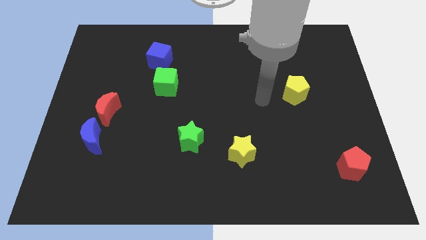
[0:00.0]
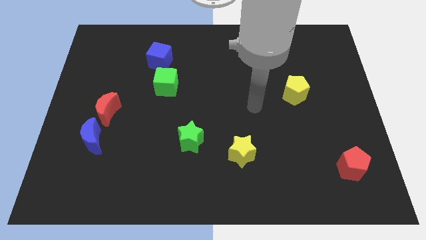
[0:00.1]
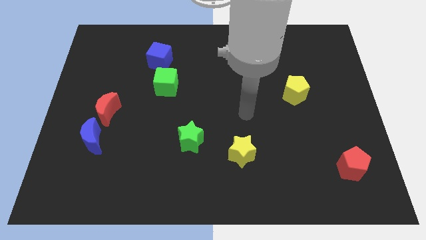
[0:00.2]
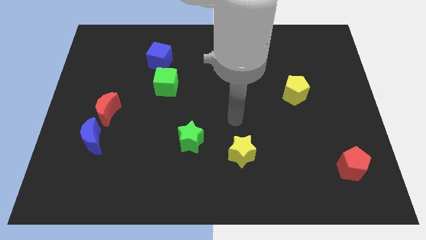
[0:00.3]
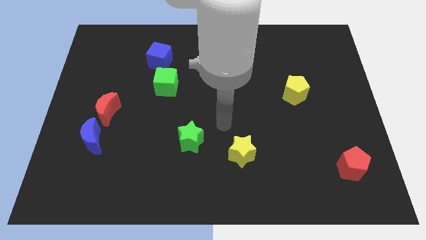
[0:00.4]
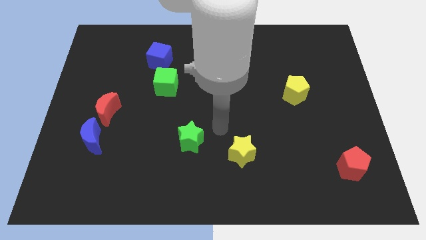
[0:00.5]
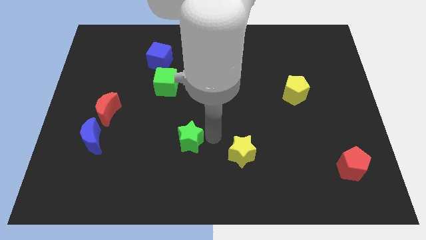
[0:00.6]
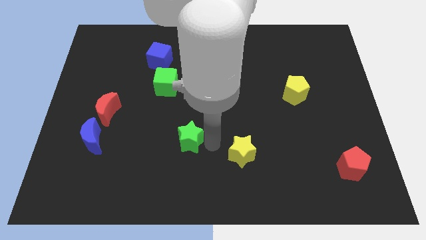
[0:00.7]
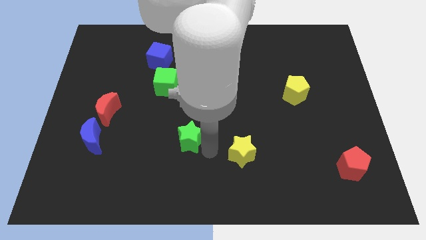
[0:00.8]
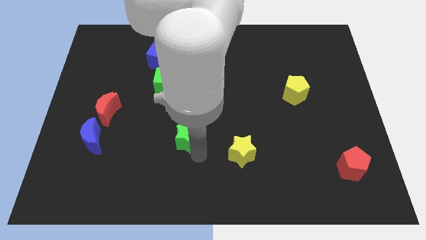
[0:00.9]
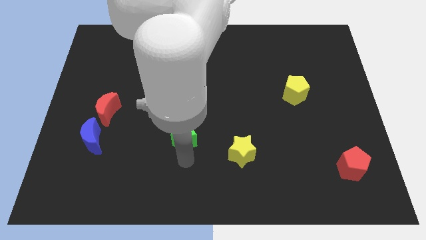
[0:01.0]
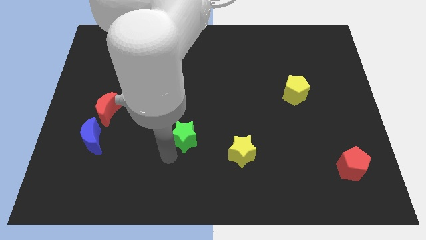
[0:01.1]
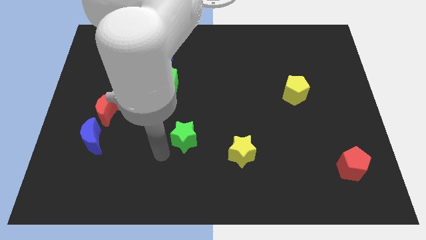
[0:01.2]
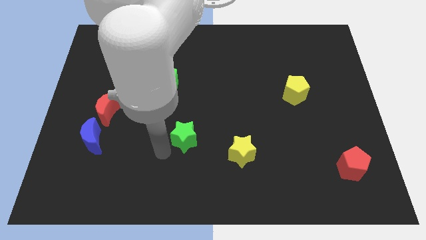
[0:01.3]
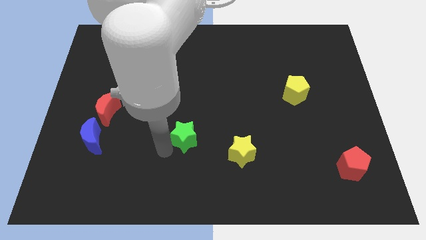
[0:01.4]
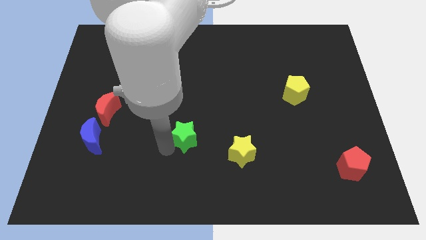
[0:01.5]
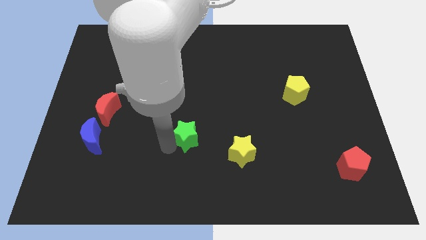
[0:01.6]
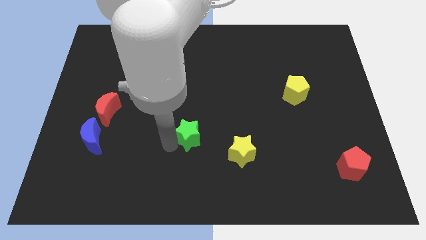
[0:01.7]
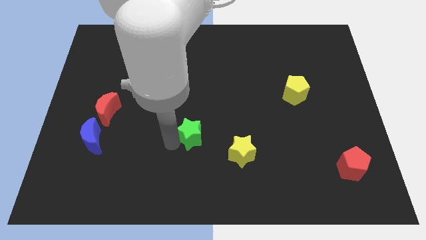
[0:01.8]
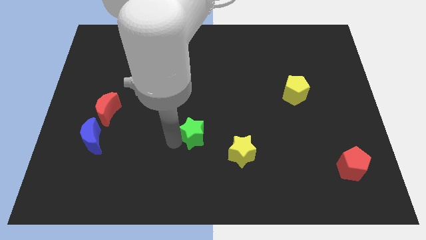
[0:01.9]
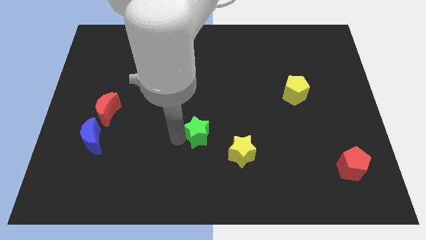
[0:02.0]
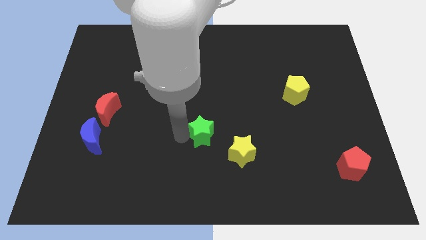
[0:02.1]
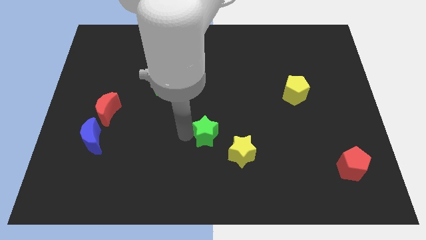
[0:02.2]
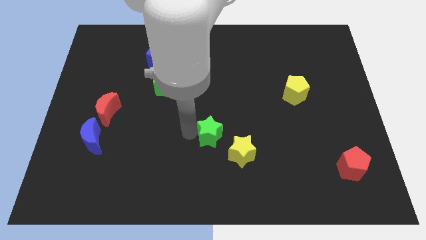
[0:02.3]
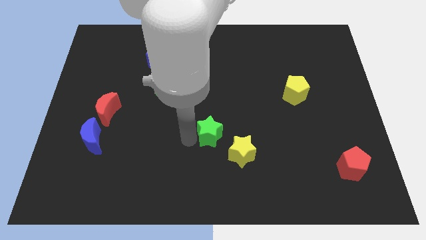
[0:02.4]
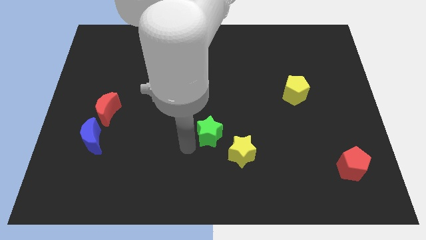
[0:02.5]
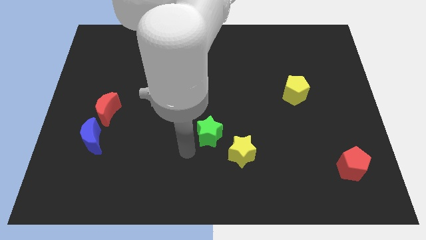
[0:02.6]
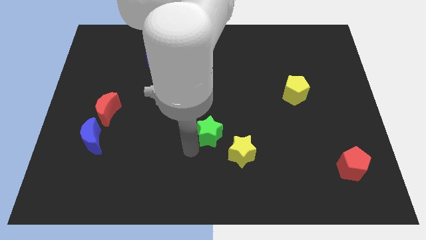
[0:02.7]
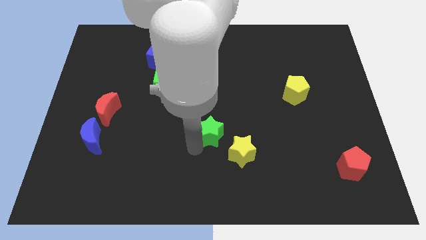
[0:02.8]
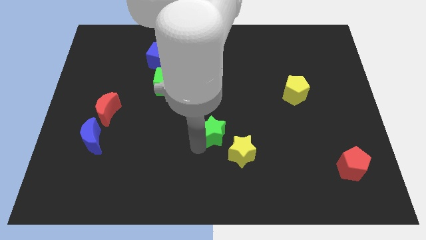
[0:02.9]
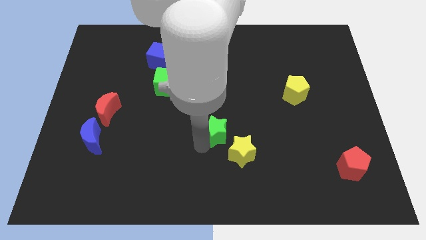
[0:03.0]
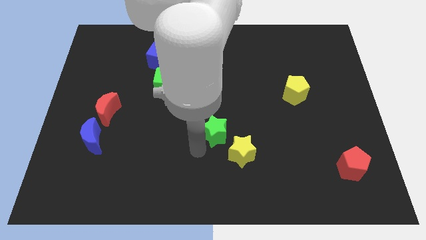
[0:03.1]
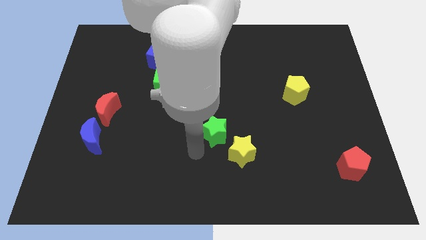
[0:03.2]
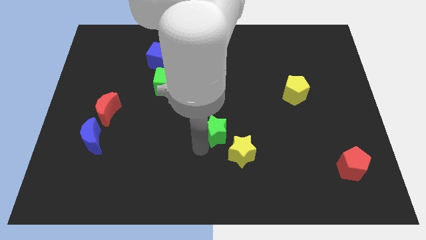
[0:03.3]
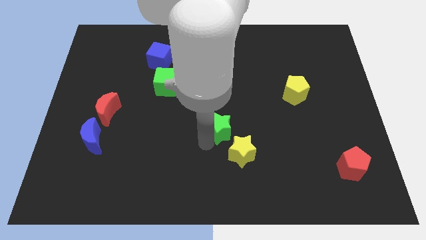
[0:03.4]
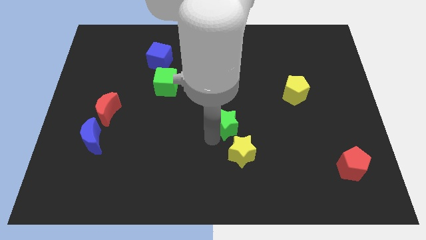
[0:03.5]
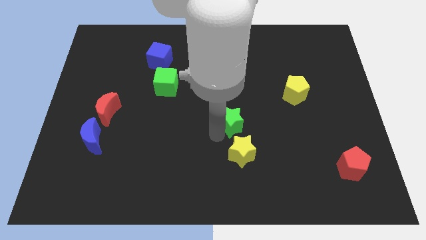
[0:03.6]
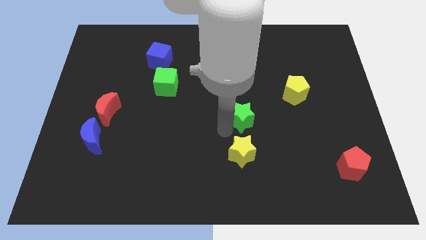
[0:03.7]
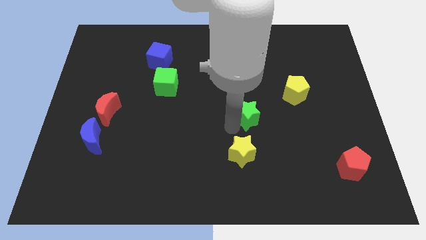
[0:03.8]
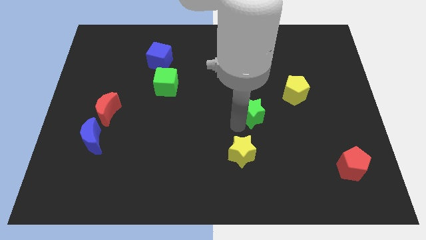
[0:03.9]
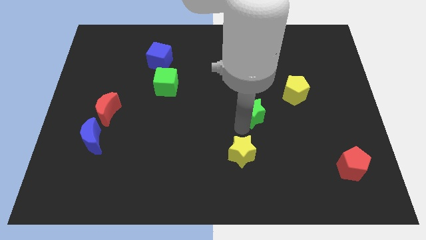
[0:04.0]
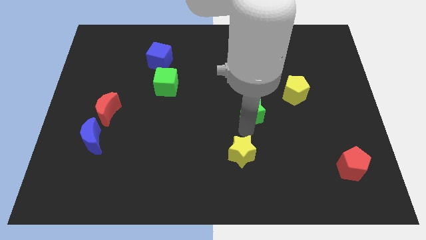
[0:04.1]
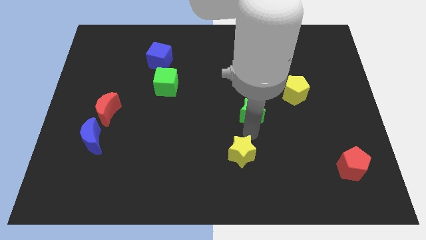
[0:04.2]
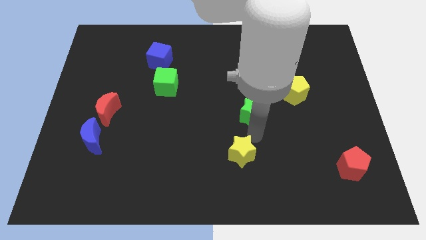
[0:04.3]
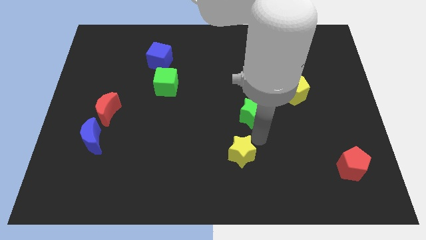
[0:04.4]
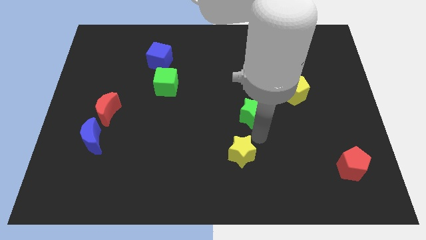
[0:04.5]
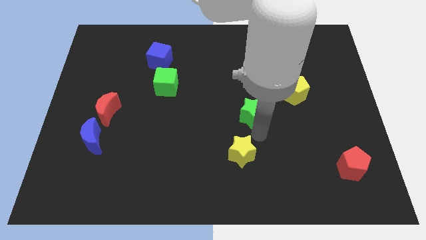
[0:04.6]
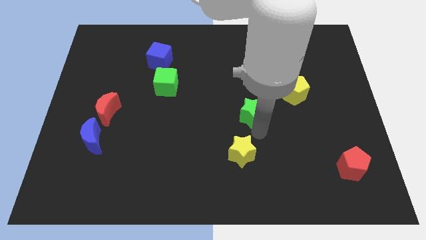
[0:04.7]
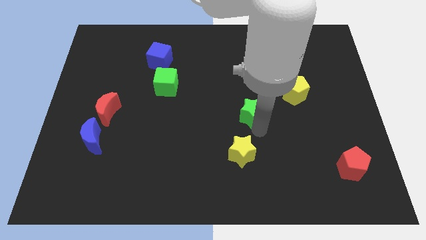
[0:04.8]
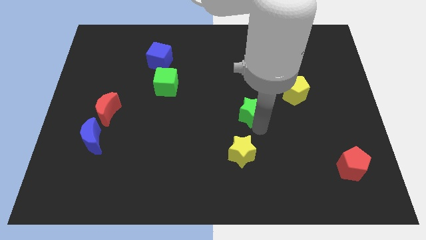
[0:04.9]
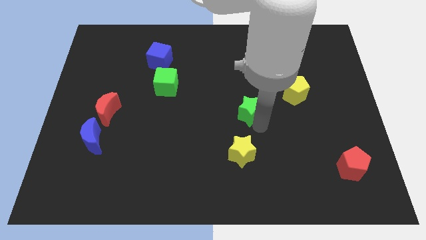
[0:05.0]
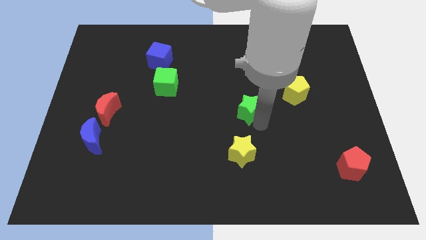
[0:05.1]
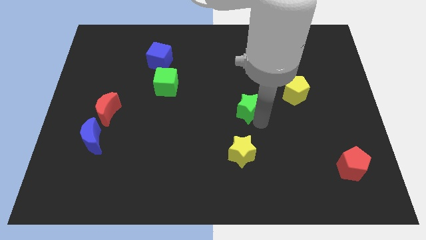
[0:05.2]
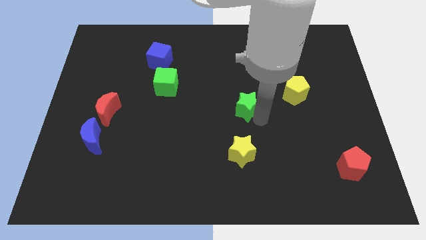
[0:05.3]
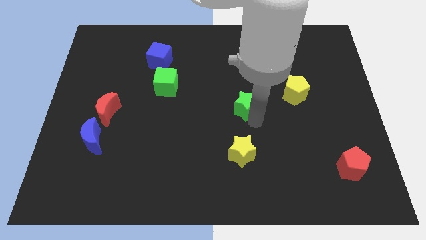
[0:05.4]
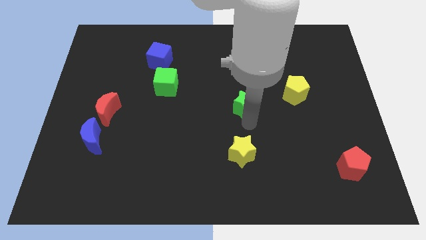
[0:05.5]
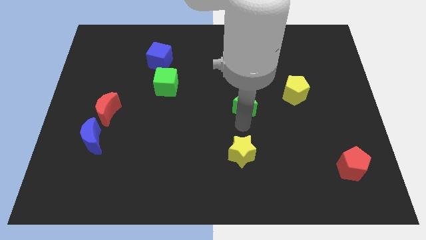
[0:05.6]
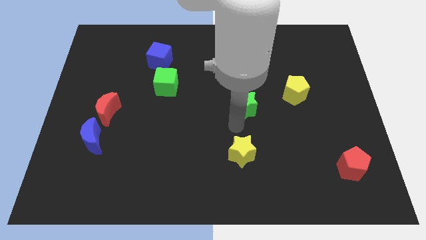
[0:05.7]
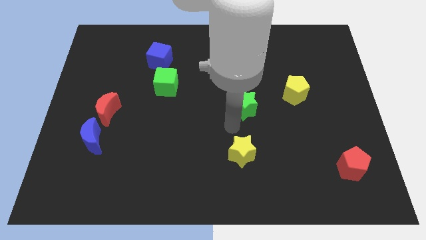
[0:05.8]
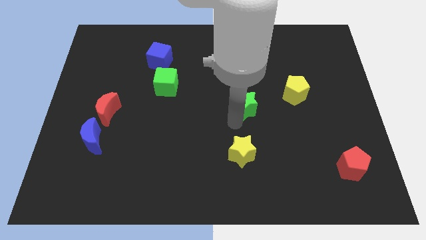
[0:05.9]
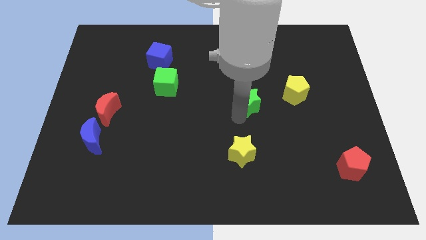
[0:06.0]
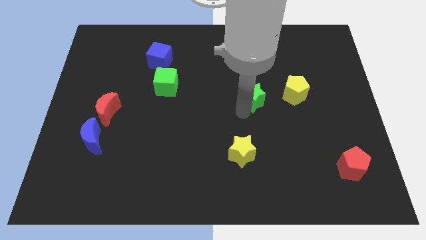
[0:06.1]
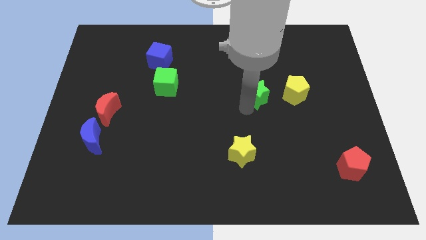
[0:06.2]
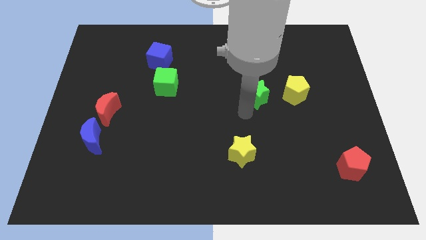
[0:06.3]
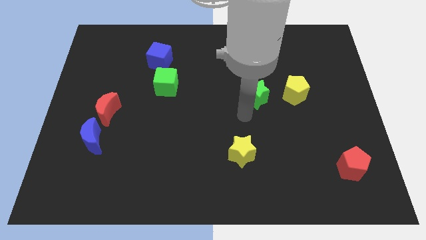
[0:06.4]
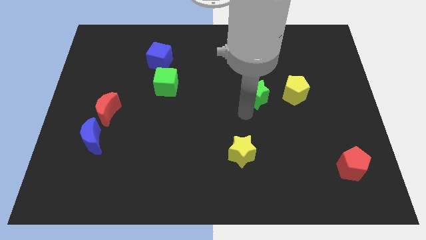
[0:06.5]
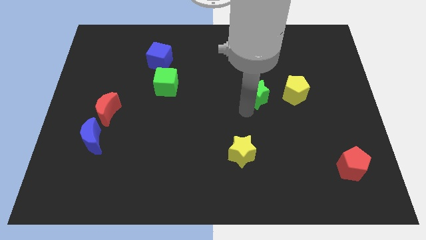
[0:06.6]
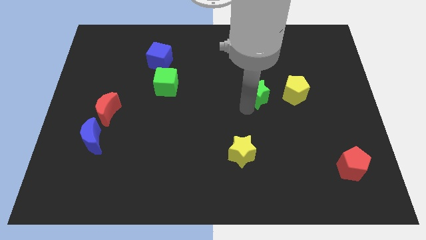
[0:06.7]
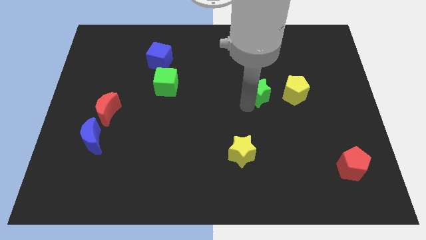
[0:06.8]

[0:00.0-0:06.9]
push the green star upwards and to the right diagonally

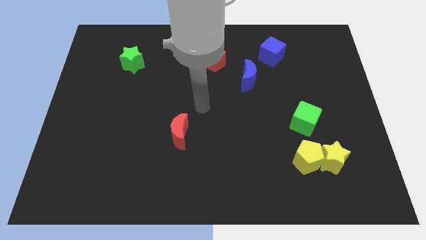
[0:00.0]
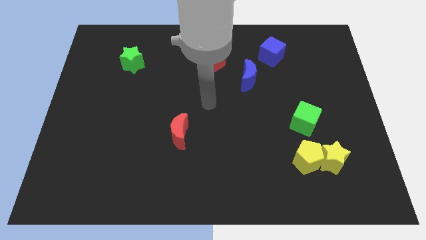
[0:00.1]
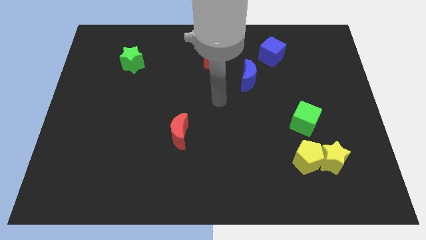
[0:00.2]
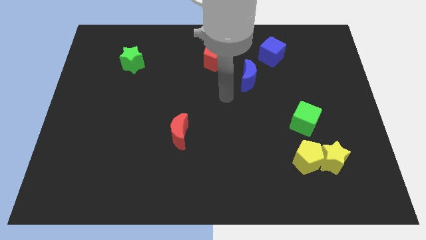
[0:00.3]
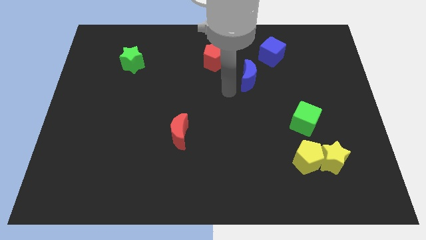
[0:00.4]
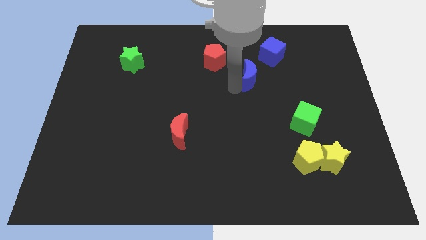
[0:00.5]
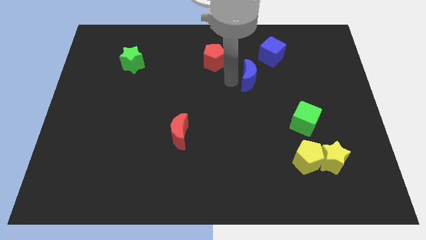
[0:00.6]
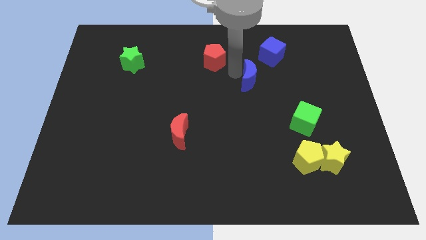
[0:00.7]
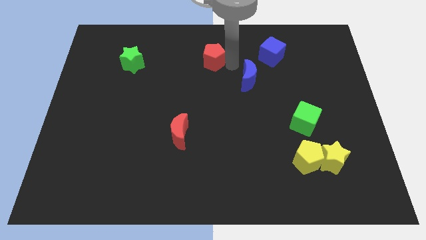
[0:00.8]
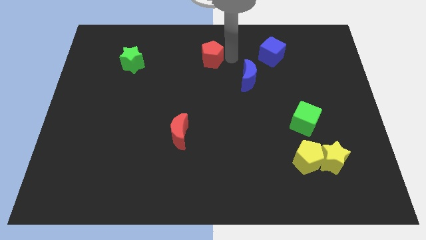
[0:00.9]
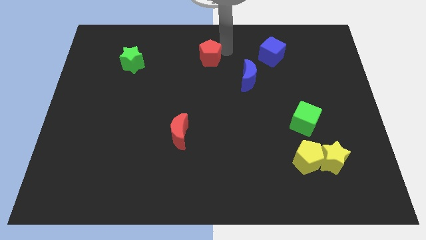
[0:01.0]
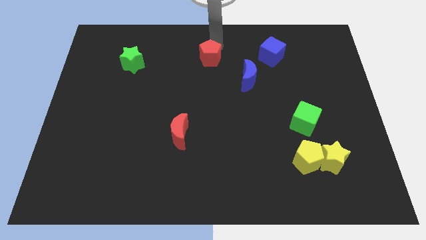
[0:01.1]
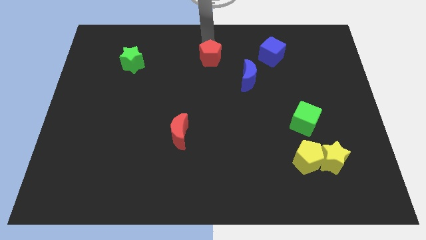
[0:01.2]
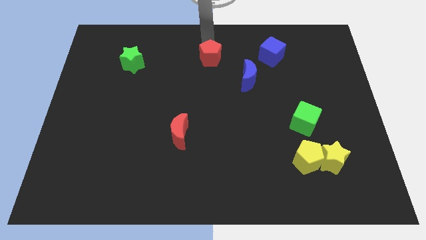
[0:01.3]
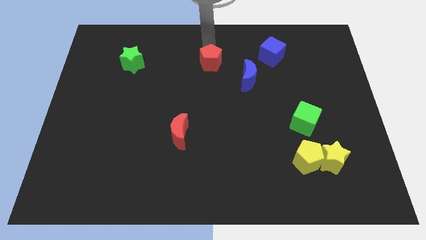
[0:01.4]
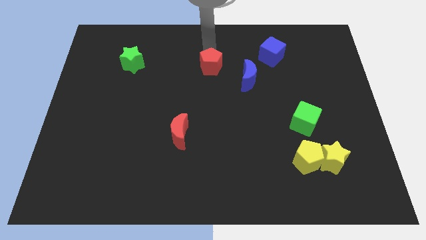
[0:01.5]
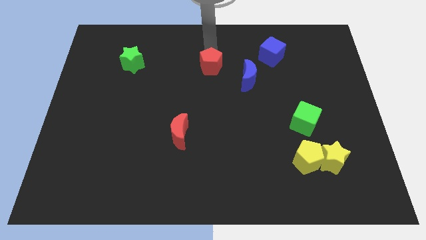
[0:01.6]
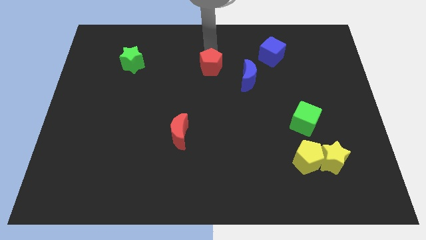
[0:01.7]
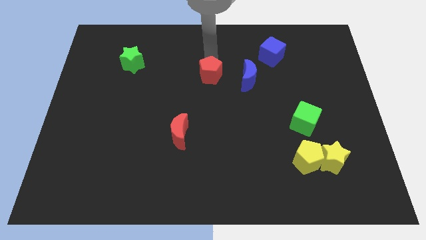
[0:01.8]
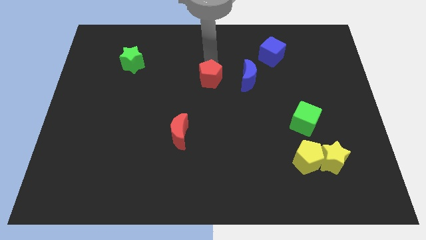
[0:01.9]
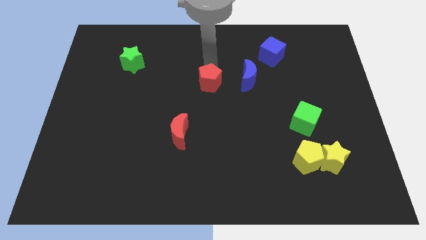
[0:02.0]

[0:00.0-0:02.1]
slide the red pentagon slightly downwards
